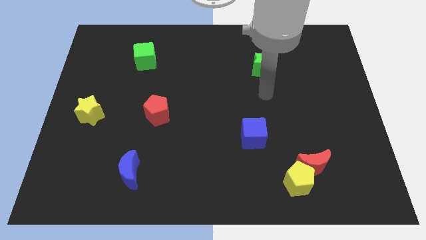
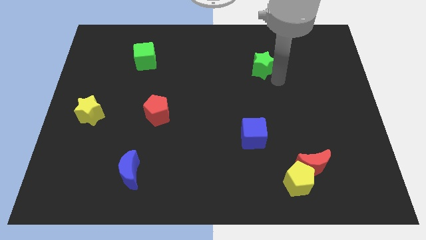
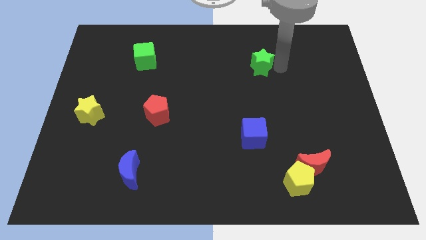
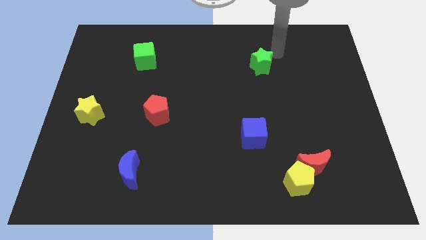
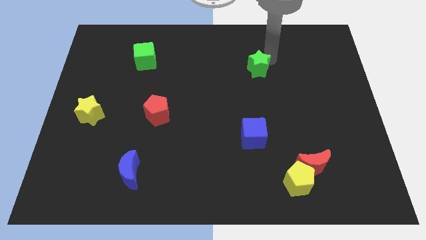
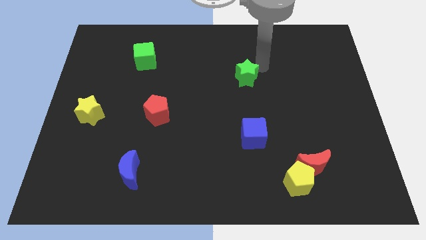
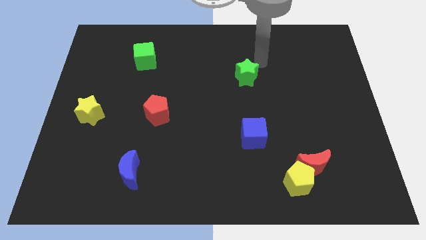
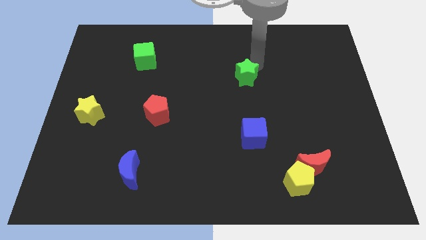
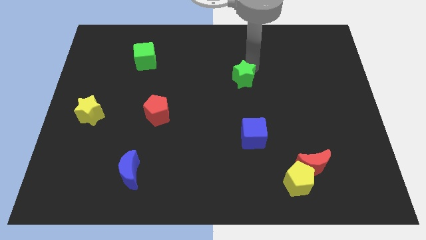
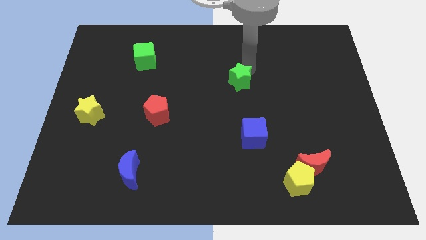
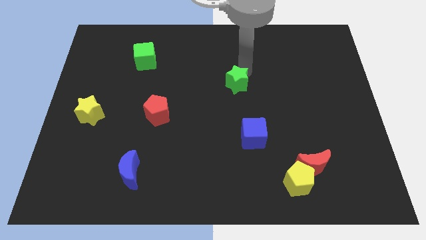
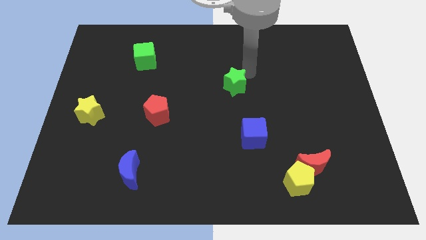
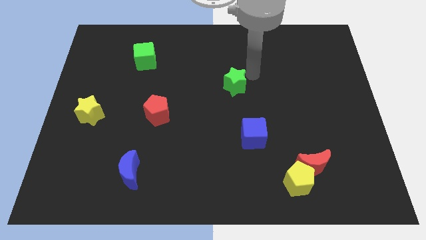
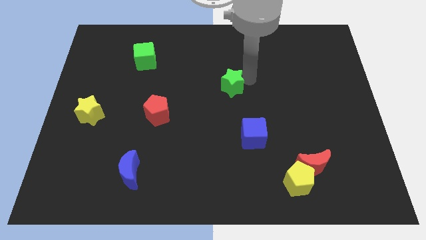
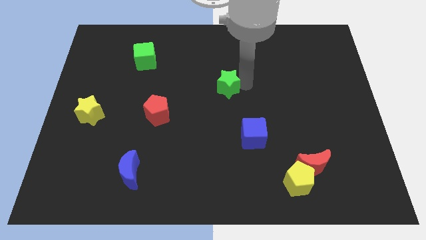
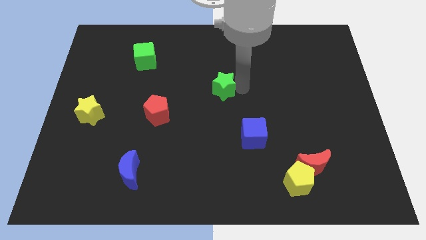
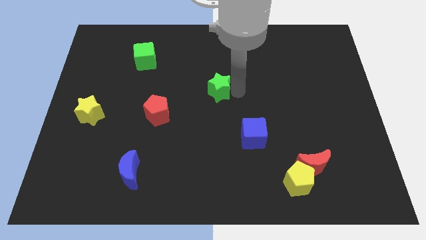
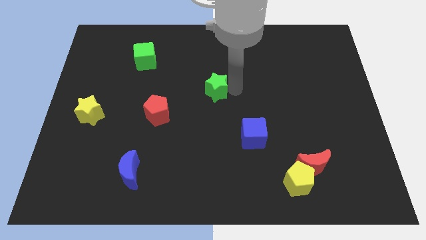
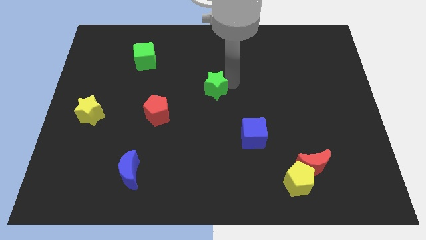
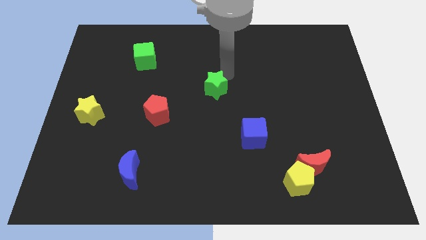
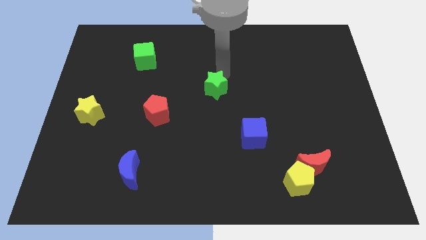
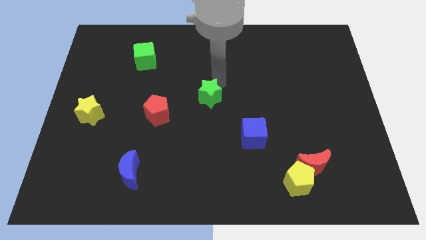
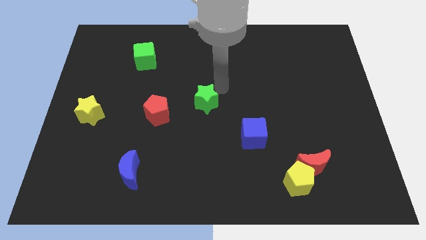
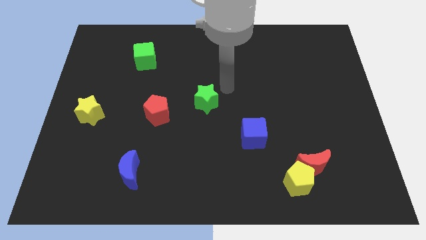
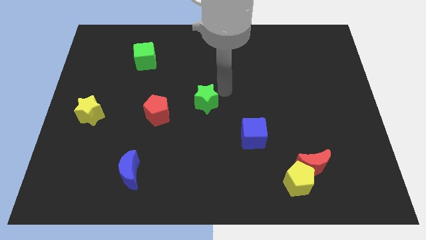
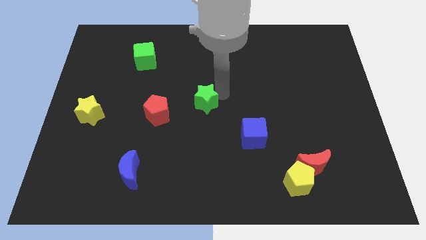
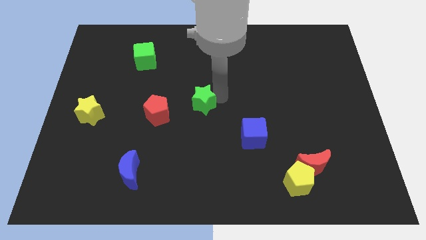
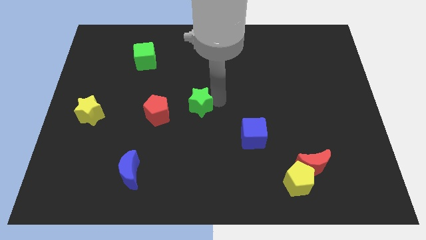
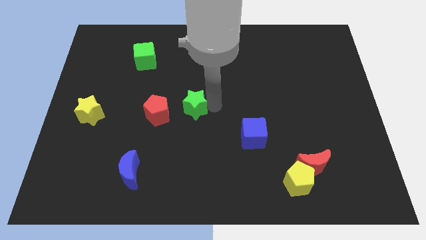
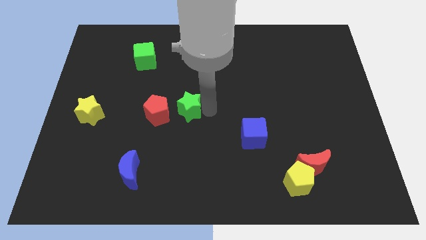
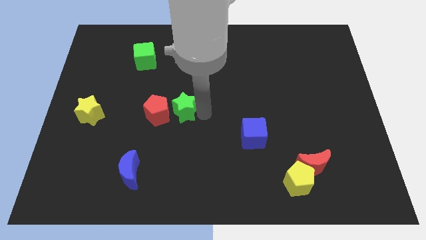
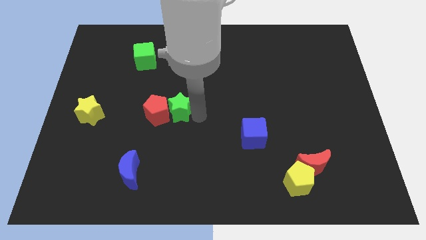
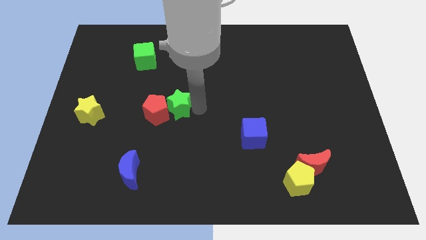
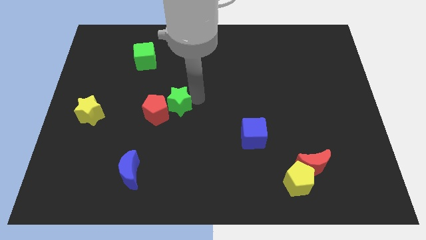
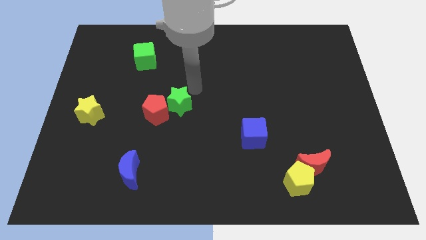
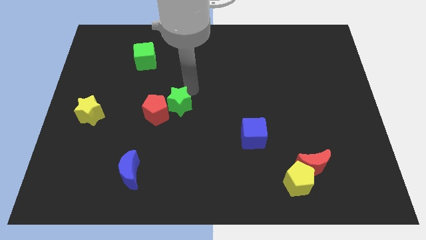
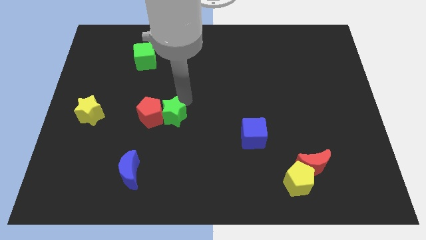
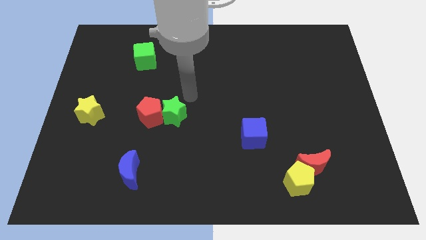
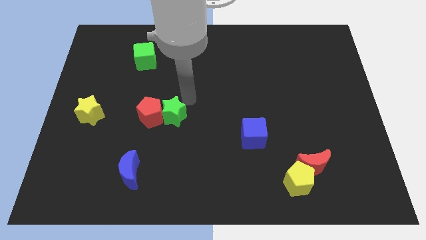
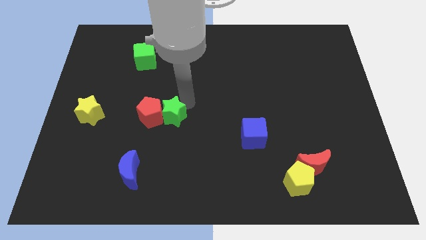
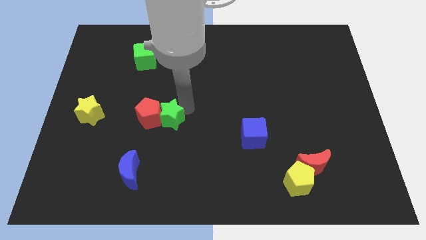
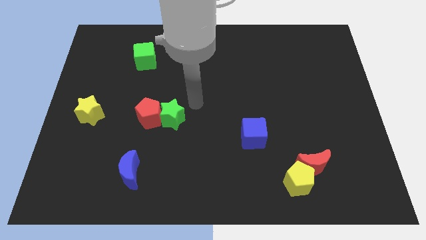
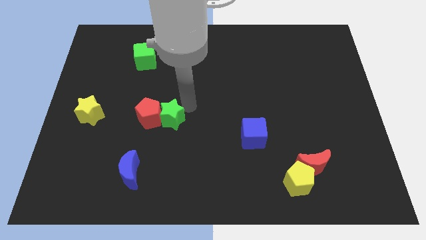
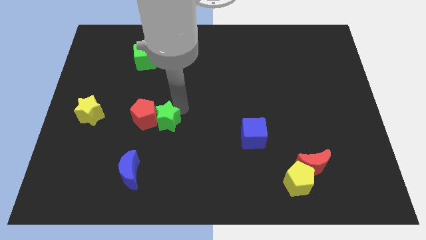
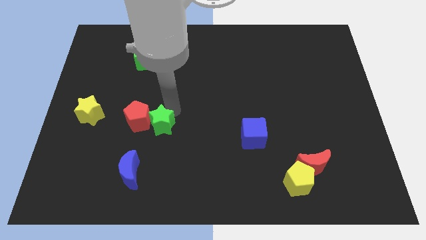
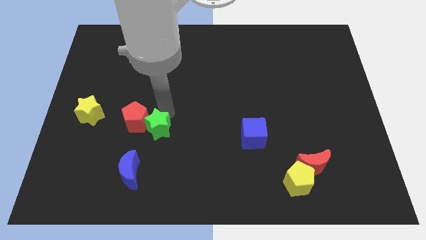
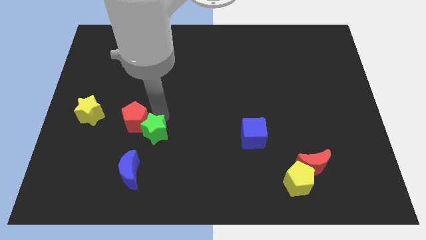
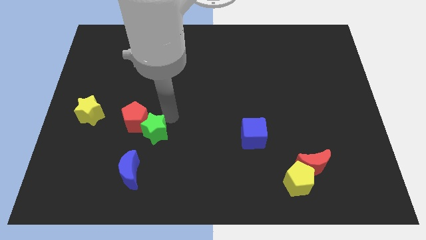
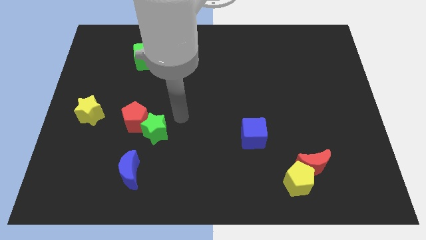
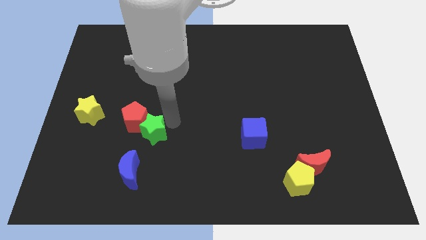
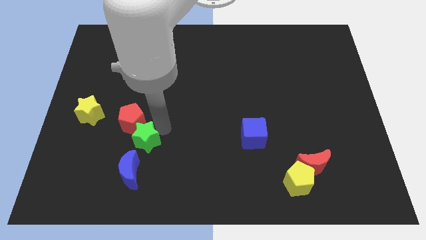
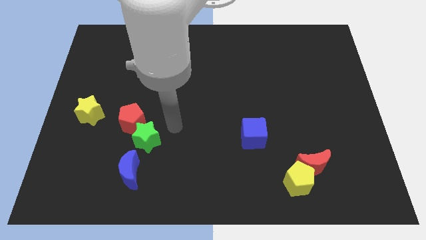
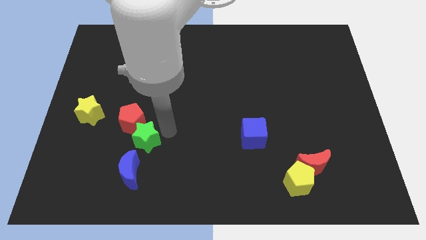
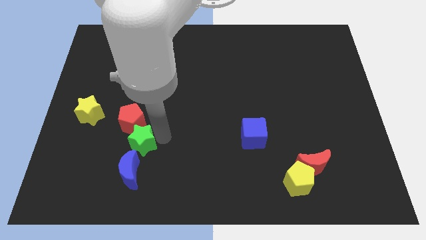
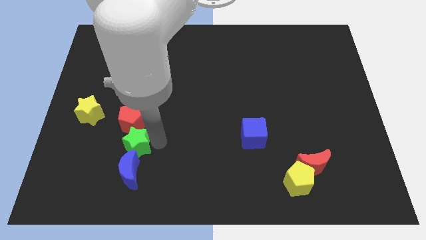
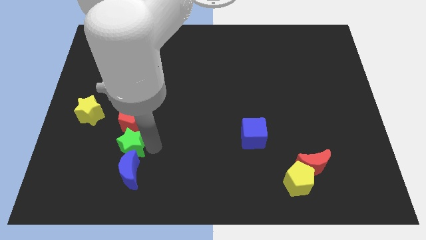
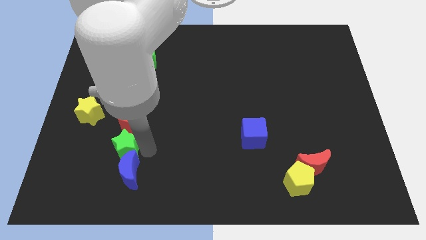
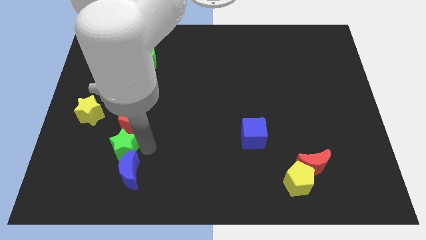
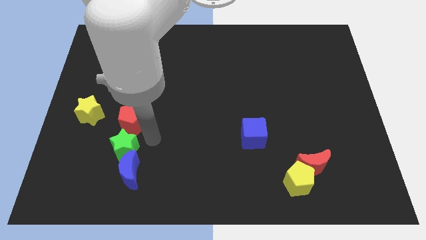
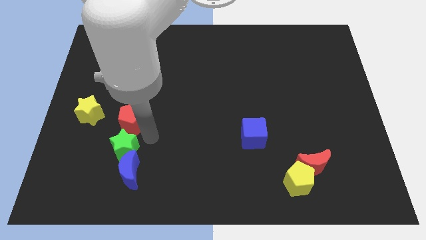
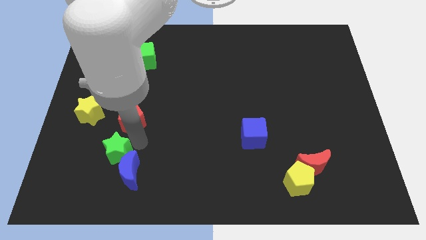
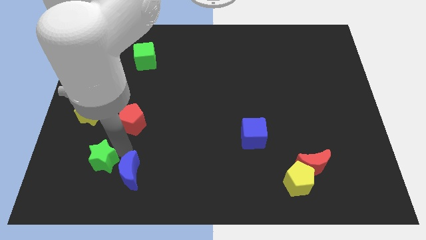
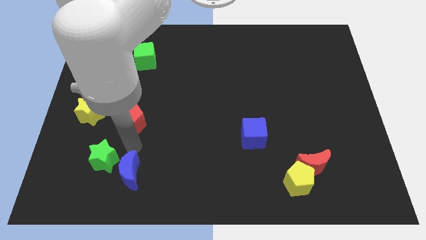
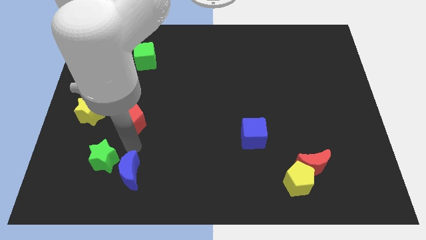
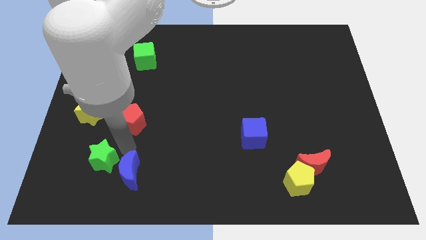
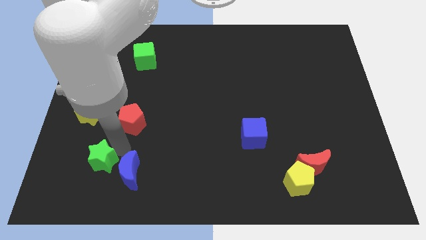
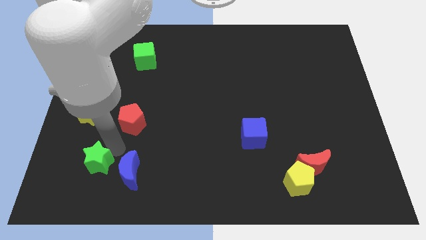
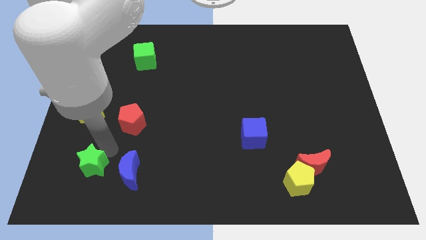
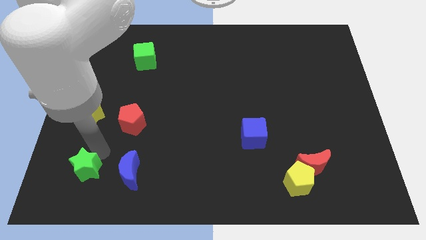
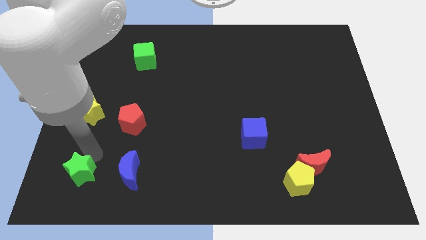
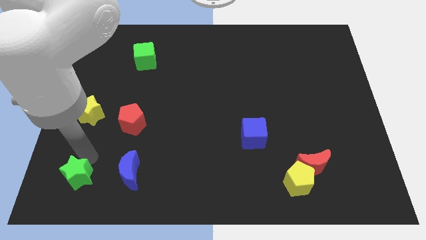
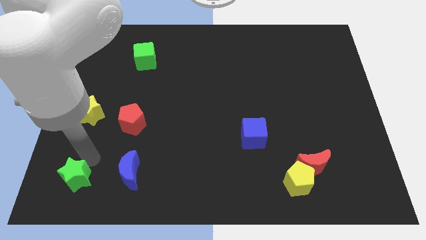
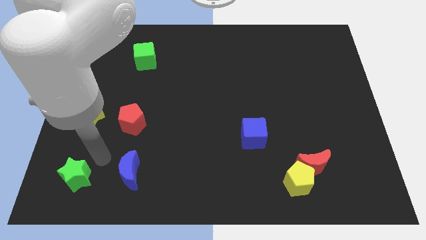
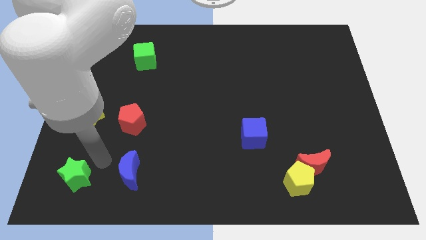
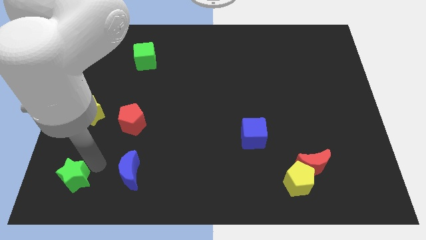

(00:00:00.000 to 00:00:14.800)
move the green star to the bottom left corner
